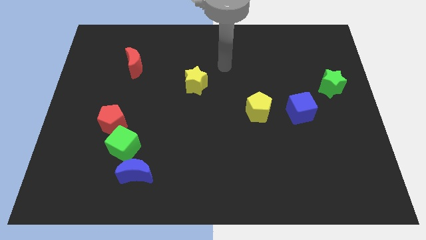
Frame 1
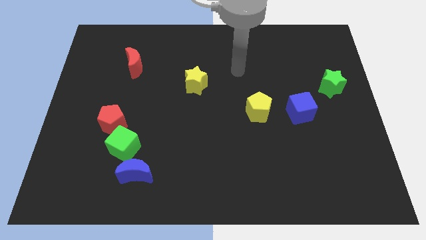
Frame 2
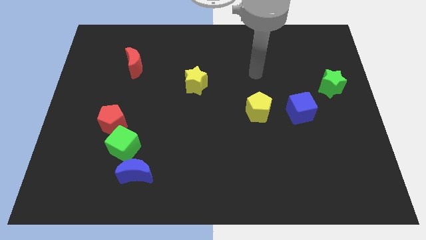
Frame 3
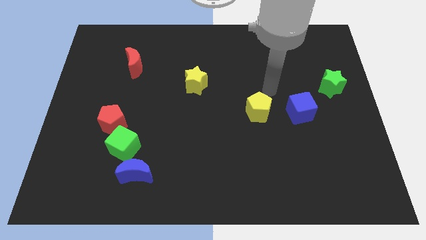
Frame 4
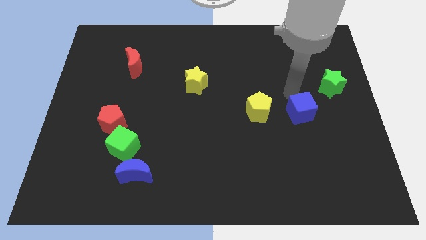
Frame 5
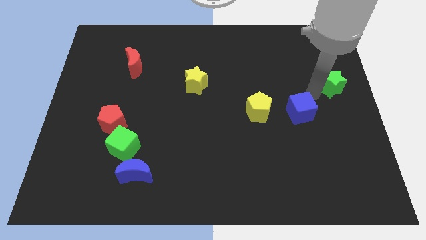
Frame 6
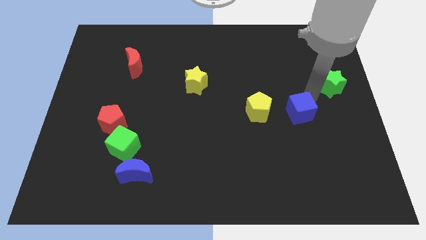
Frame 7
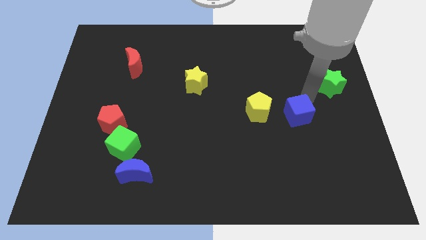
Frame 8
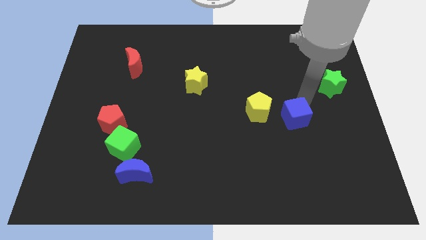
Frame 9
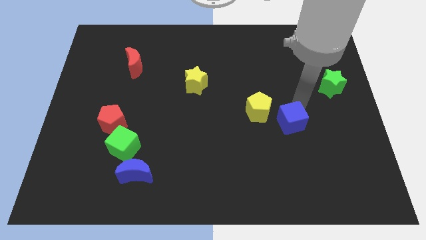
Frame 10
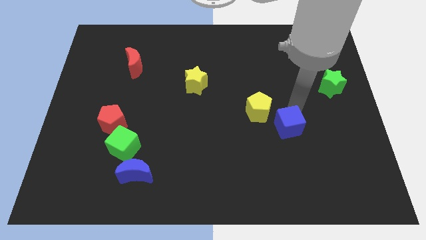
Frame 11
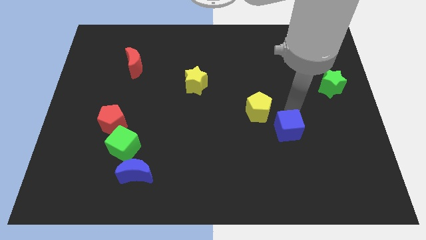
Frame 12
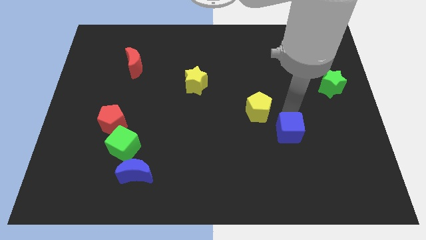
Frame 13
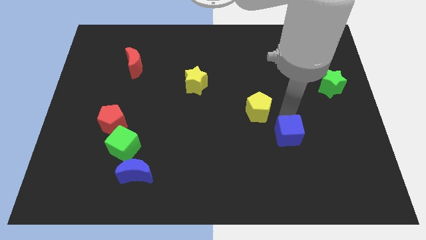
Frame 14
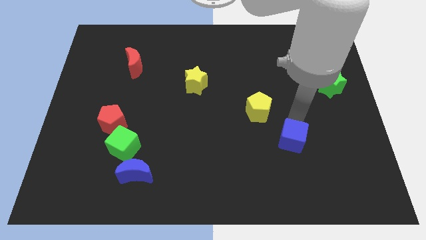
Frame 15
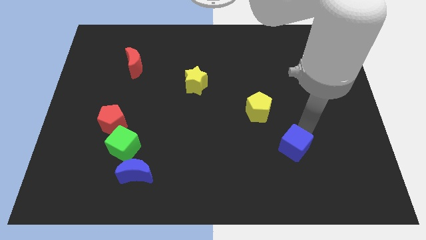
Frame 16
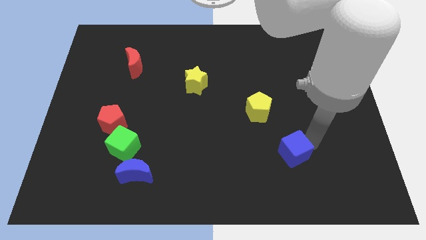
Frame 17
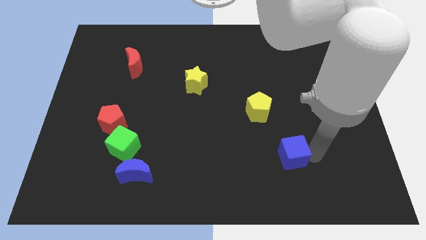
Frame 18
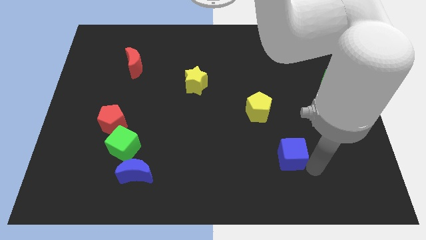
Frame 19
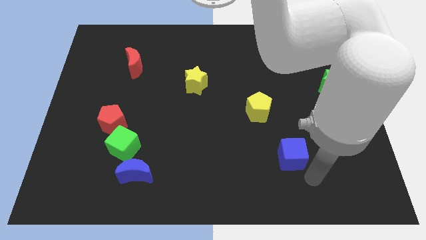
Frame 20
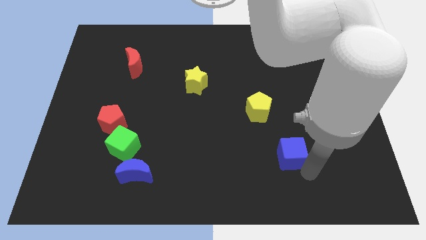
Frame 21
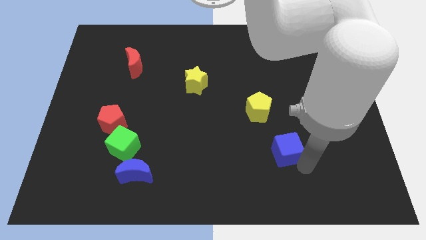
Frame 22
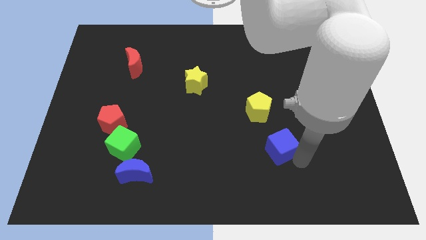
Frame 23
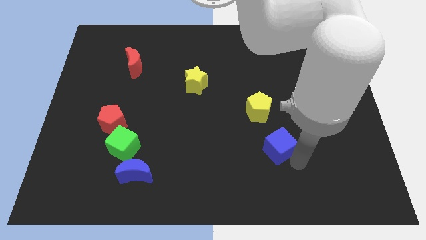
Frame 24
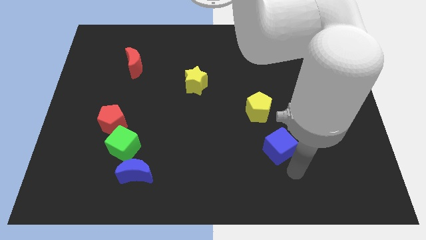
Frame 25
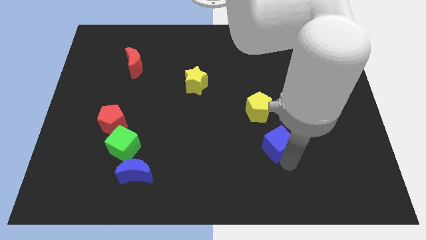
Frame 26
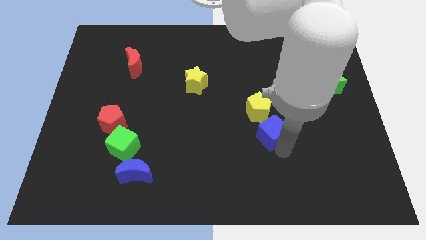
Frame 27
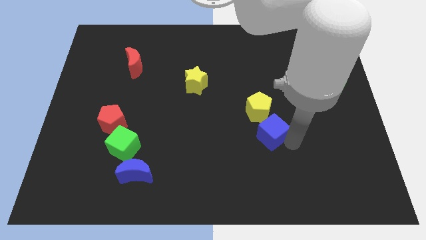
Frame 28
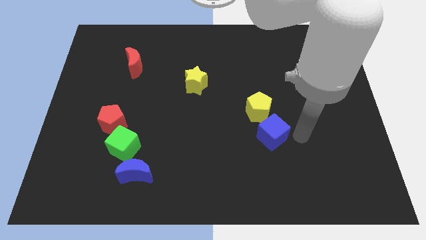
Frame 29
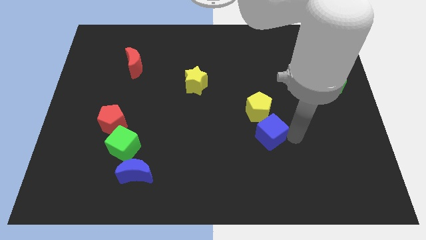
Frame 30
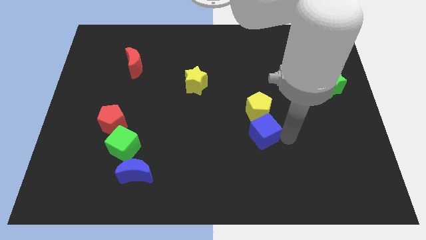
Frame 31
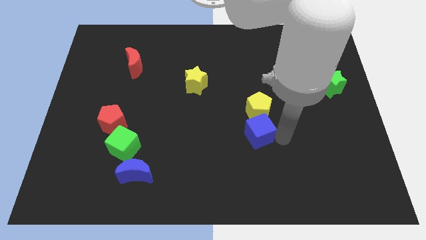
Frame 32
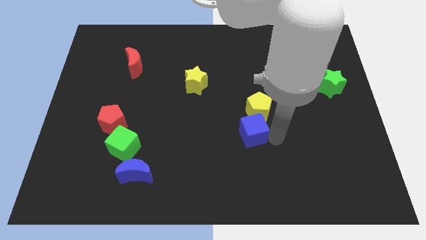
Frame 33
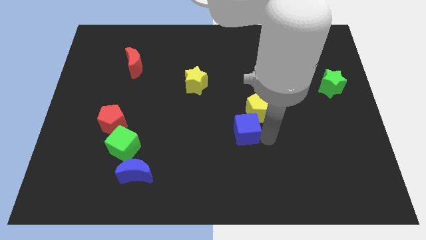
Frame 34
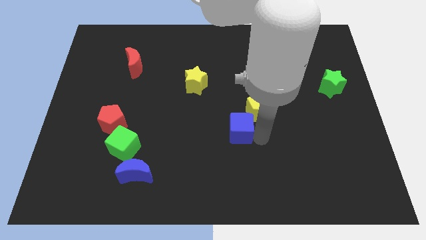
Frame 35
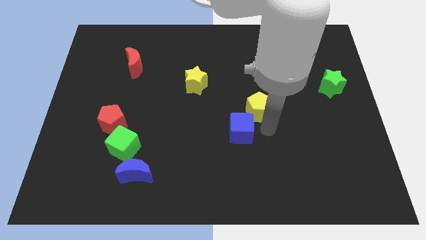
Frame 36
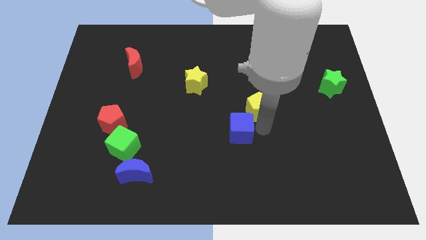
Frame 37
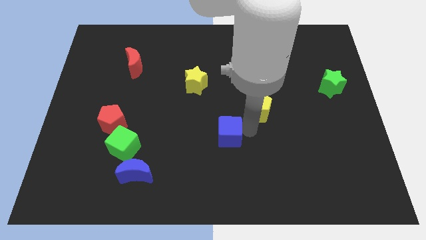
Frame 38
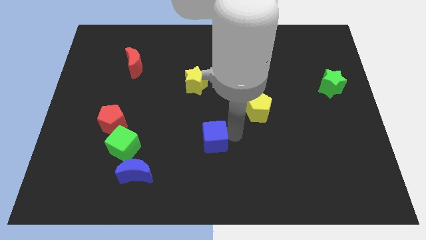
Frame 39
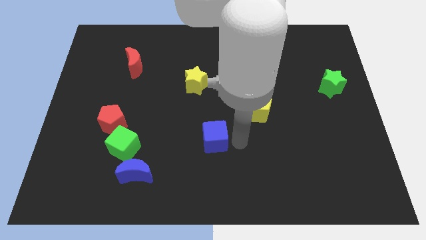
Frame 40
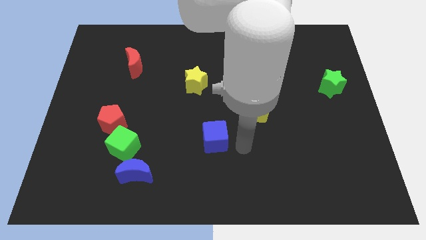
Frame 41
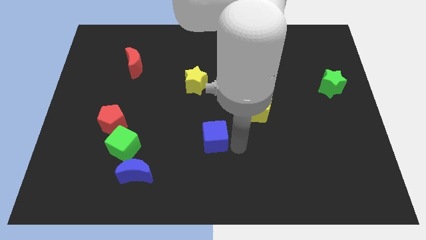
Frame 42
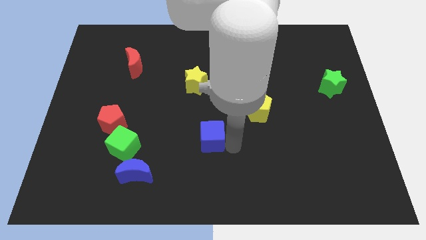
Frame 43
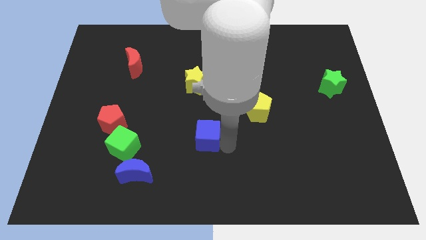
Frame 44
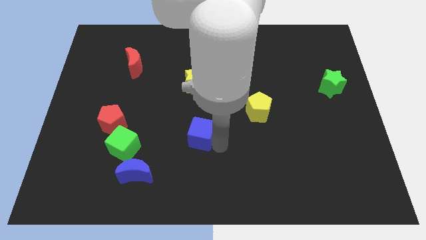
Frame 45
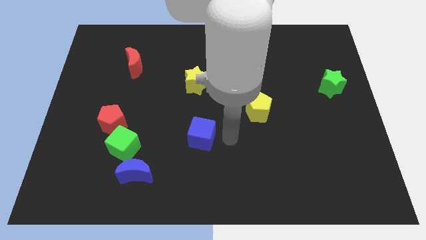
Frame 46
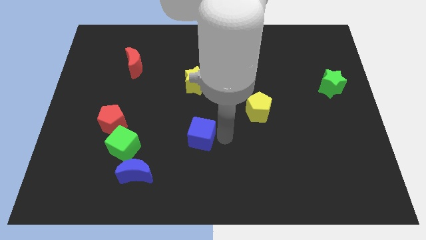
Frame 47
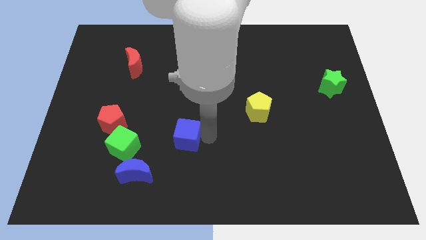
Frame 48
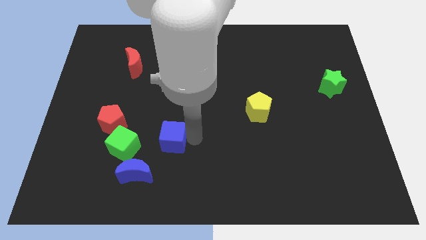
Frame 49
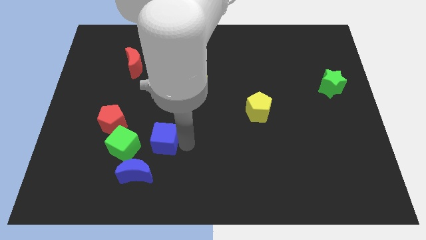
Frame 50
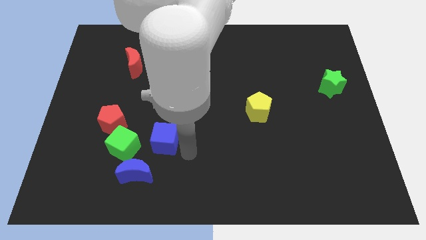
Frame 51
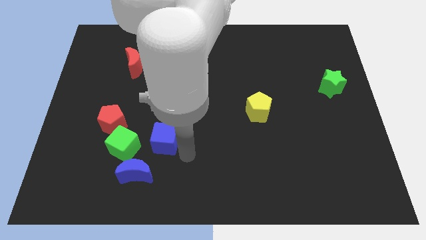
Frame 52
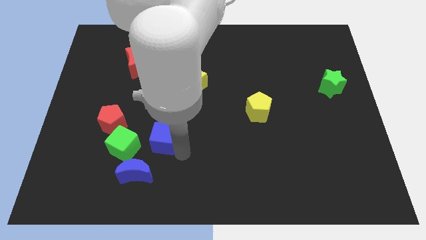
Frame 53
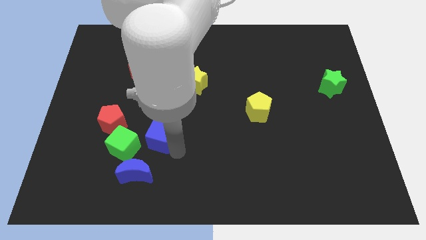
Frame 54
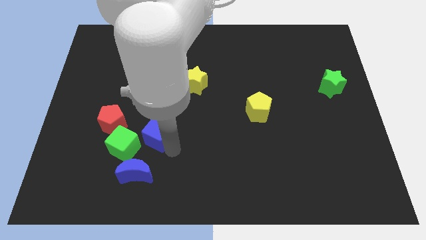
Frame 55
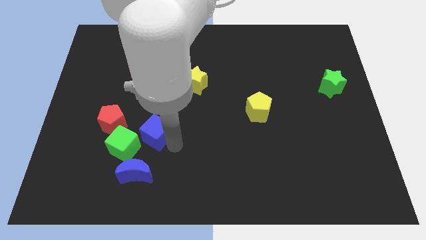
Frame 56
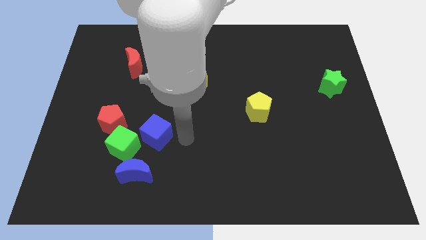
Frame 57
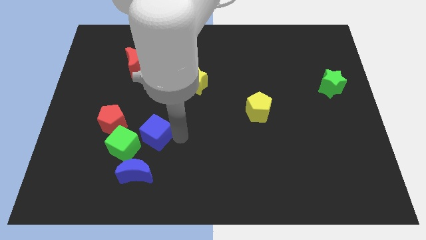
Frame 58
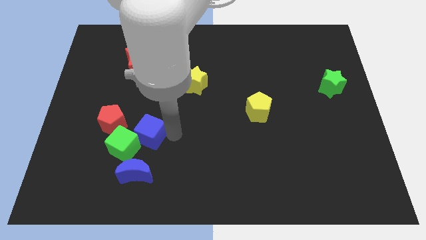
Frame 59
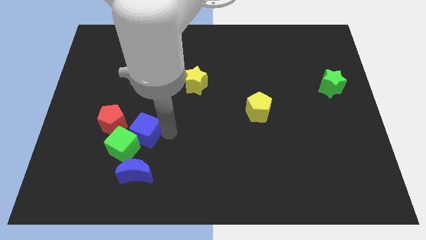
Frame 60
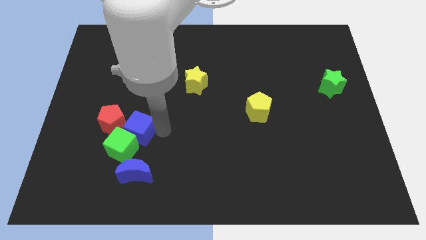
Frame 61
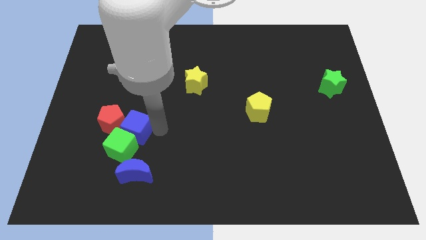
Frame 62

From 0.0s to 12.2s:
move the blue cube next to the red pentagon

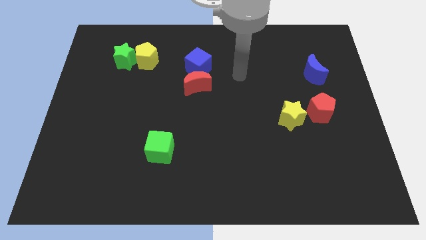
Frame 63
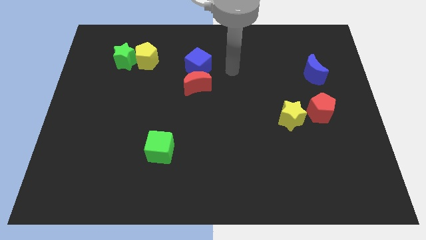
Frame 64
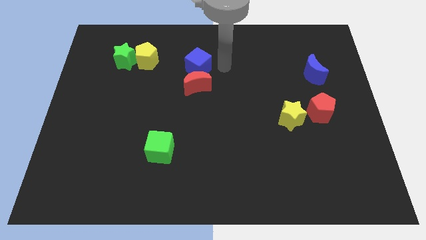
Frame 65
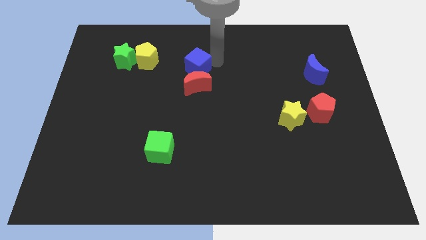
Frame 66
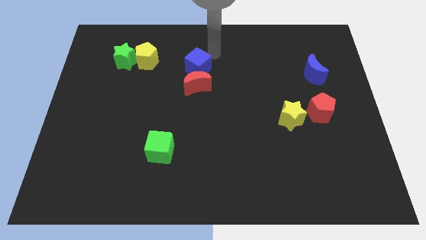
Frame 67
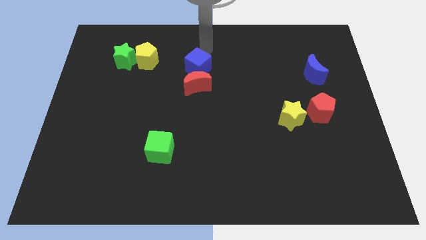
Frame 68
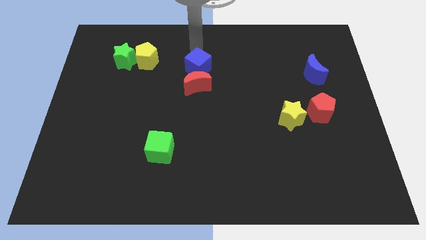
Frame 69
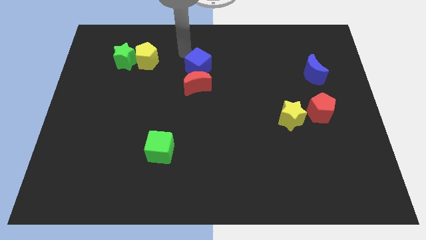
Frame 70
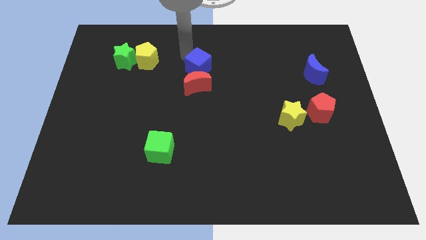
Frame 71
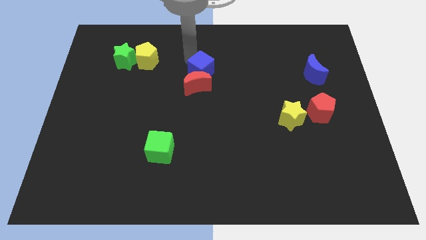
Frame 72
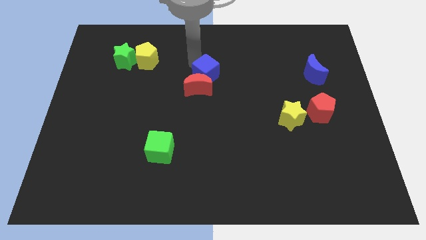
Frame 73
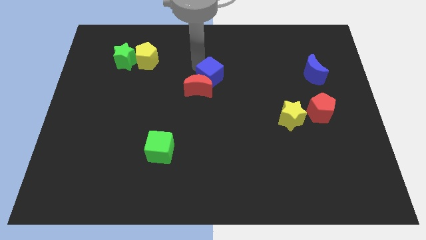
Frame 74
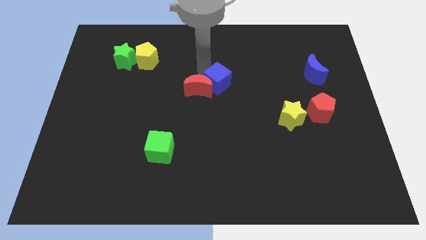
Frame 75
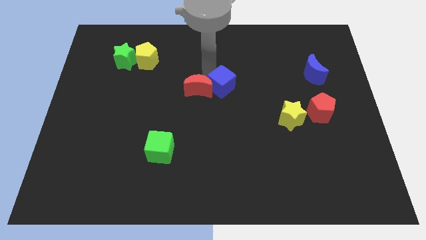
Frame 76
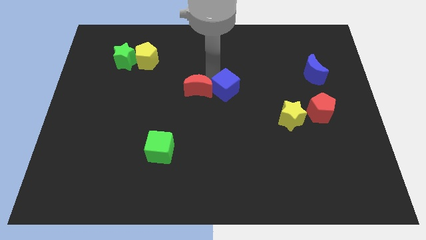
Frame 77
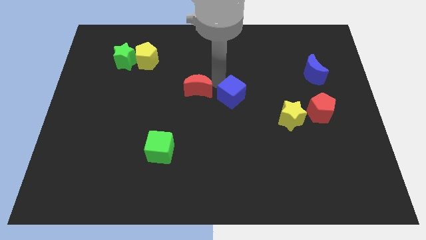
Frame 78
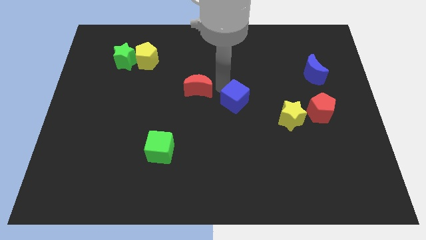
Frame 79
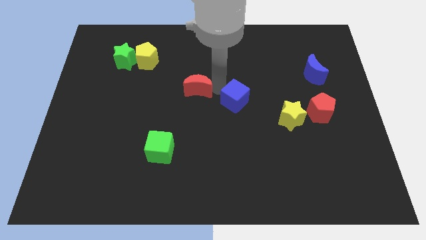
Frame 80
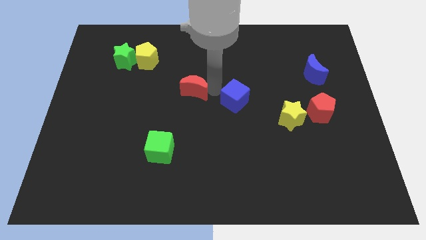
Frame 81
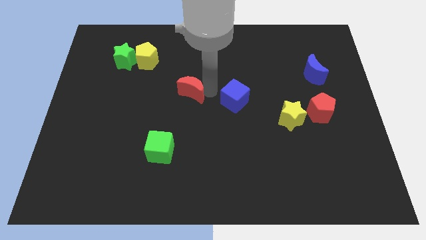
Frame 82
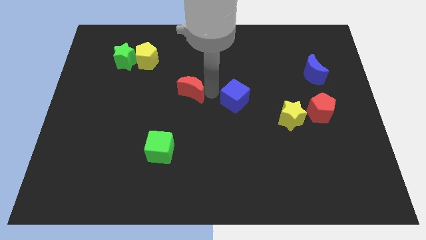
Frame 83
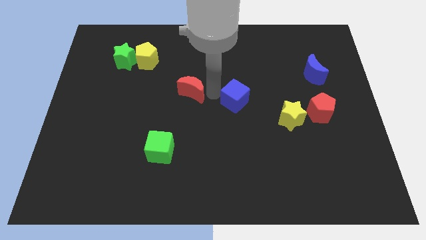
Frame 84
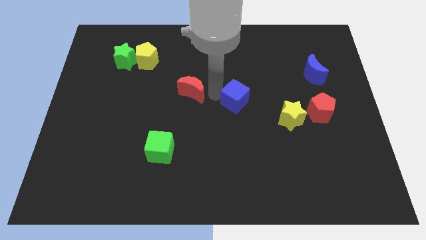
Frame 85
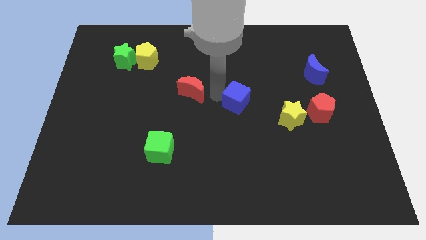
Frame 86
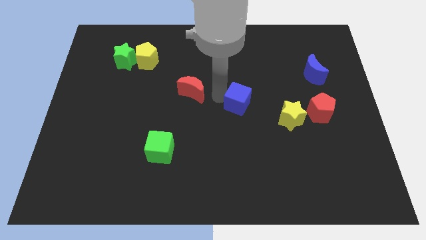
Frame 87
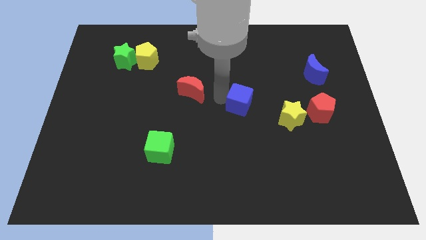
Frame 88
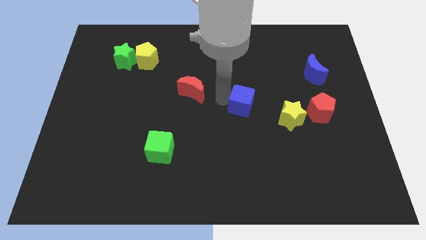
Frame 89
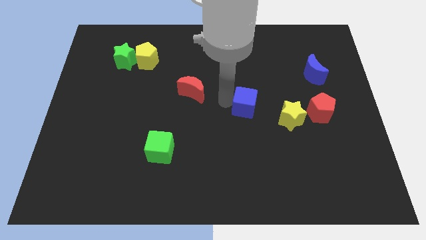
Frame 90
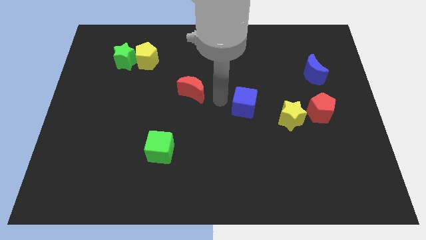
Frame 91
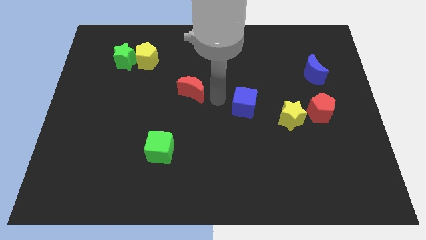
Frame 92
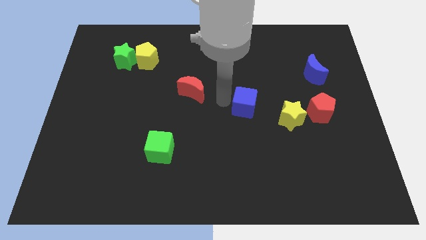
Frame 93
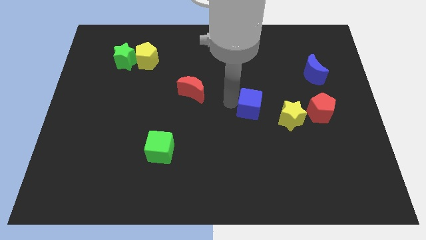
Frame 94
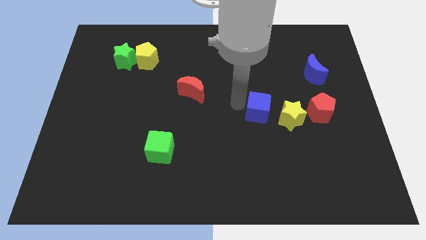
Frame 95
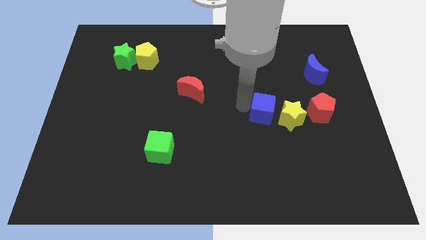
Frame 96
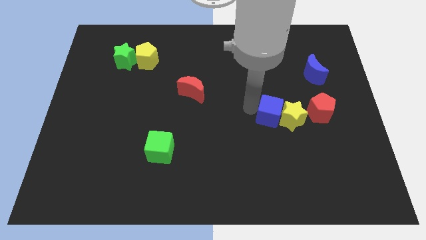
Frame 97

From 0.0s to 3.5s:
put the blue cube to the yellow star
